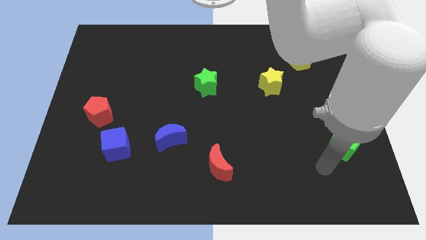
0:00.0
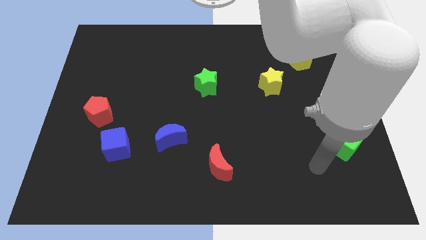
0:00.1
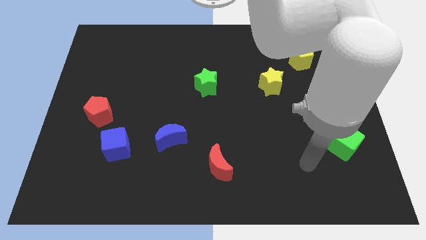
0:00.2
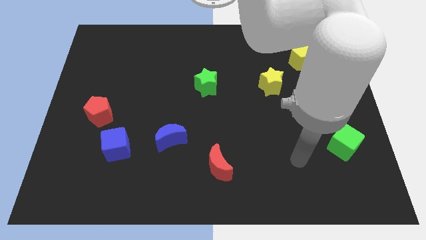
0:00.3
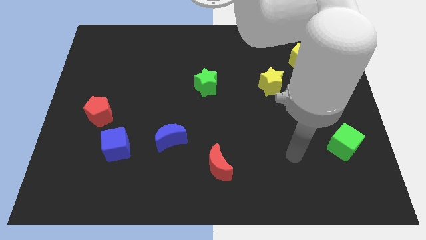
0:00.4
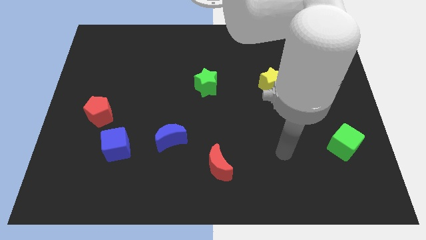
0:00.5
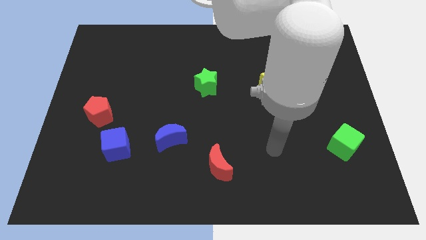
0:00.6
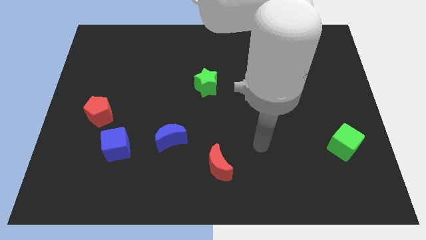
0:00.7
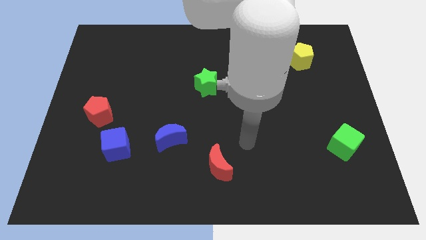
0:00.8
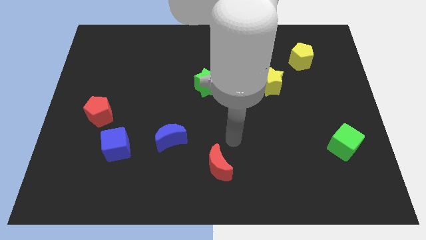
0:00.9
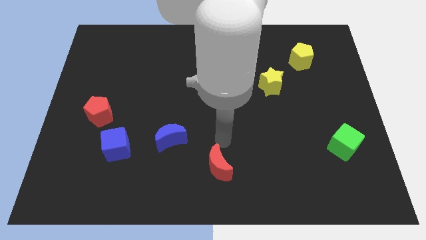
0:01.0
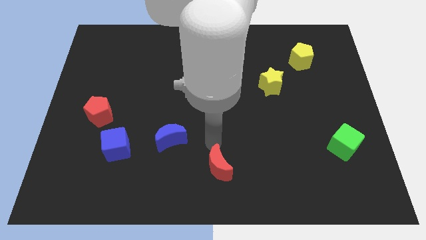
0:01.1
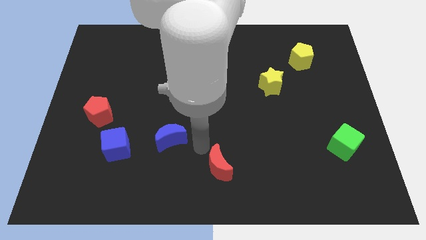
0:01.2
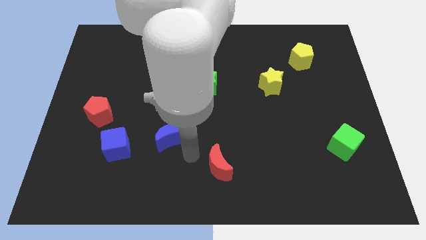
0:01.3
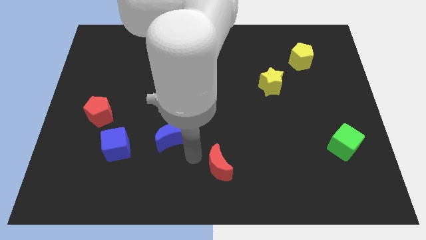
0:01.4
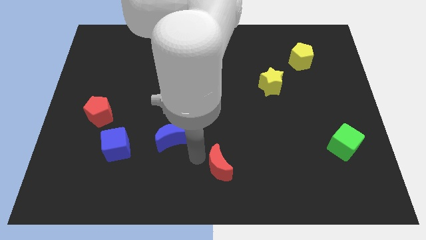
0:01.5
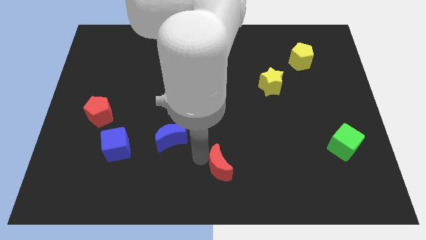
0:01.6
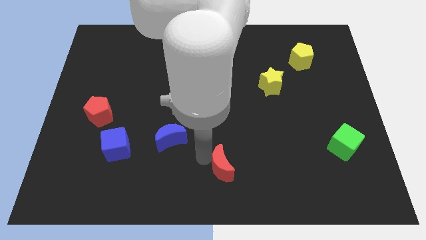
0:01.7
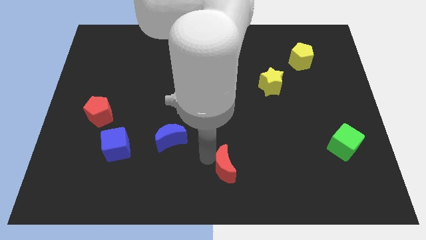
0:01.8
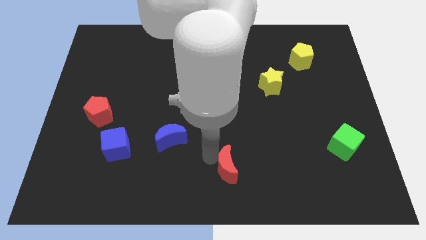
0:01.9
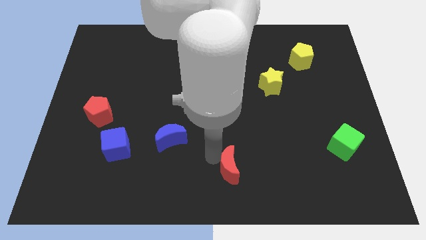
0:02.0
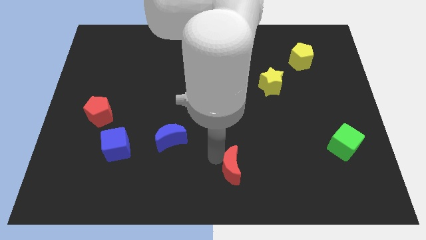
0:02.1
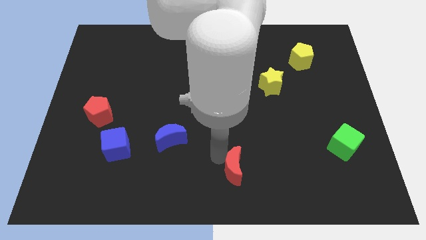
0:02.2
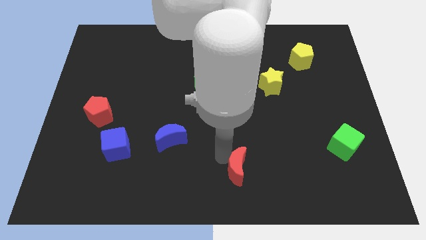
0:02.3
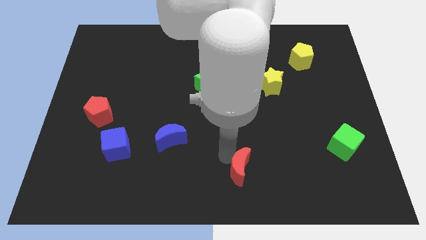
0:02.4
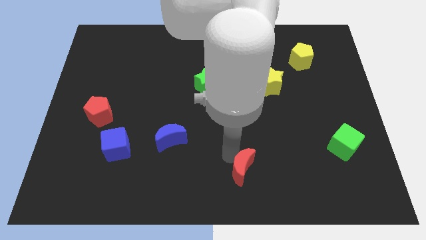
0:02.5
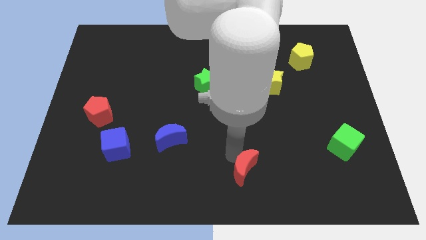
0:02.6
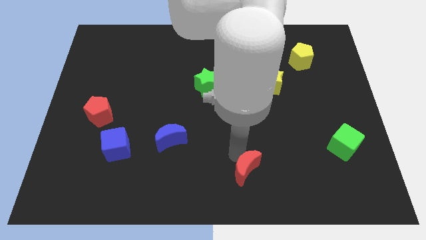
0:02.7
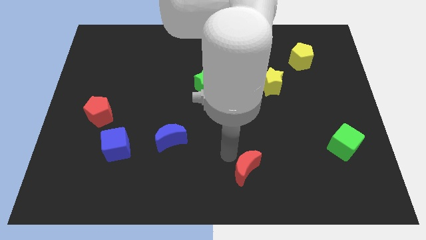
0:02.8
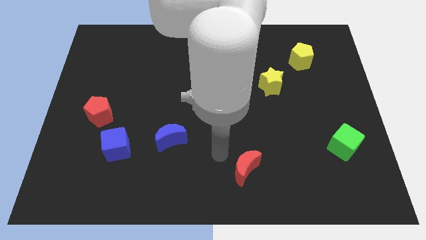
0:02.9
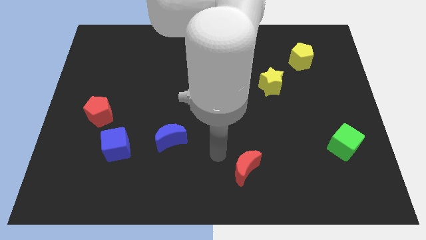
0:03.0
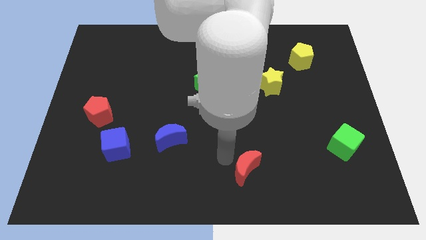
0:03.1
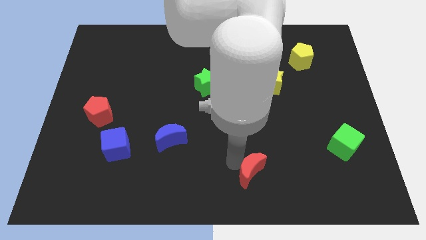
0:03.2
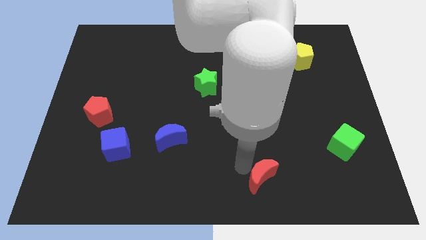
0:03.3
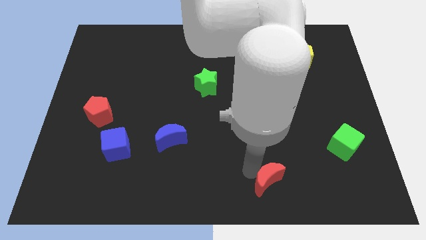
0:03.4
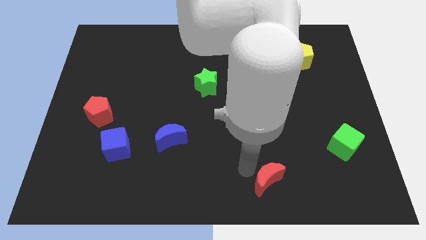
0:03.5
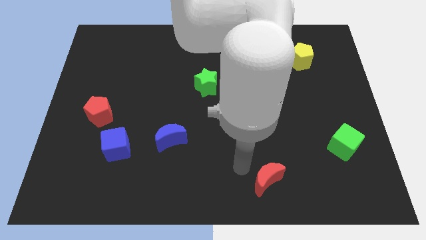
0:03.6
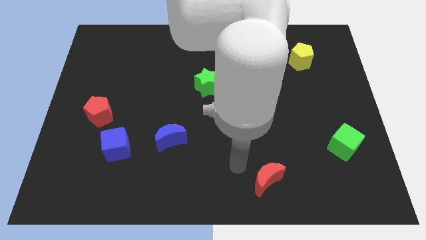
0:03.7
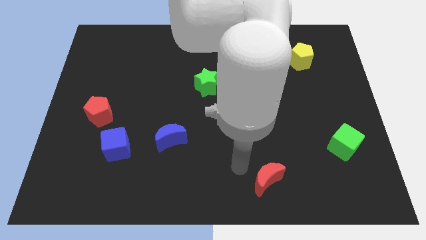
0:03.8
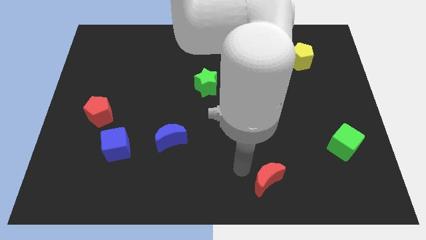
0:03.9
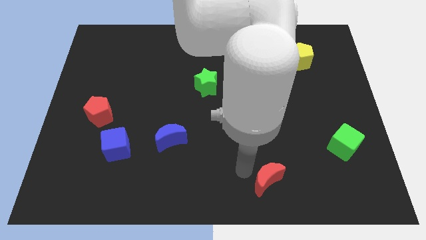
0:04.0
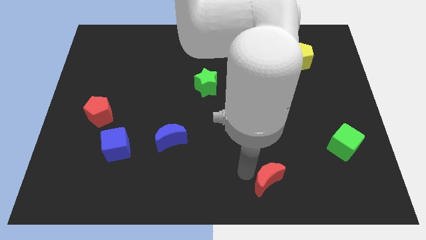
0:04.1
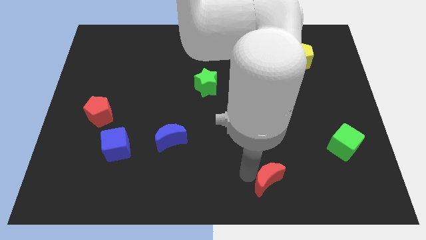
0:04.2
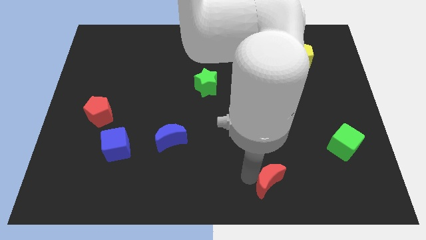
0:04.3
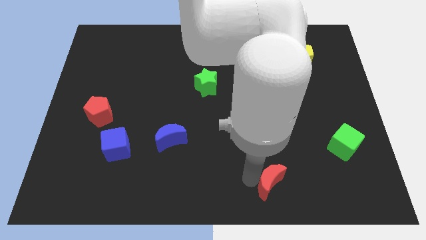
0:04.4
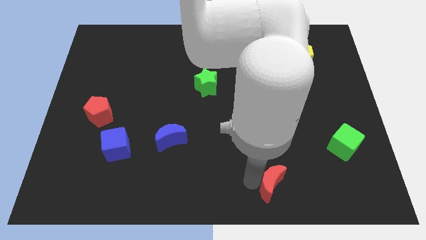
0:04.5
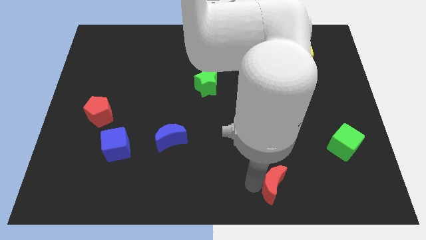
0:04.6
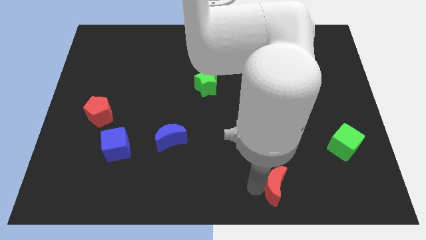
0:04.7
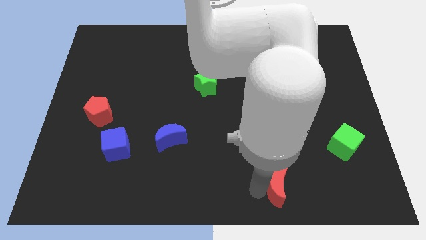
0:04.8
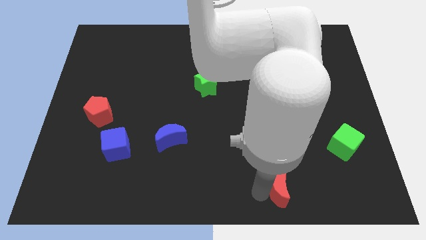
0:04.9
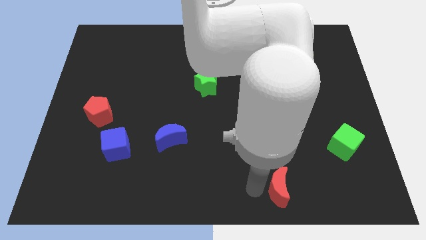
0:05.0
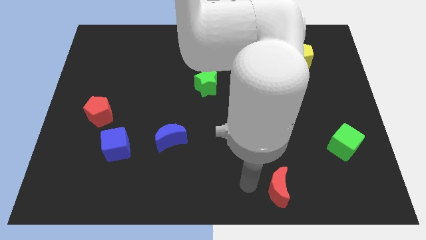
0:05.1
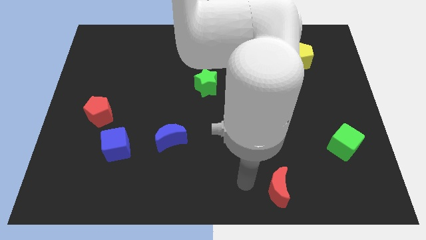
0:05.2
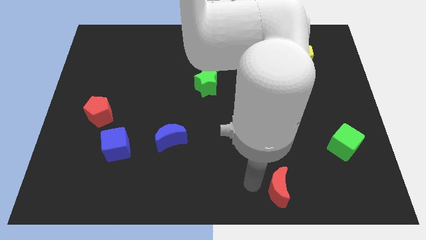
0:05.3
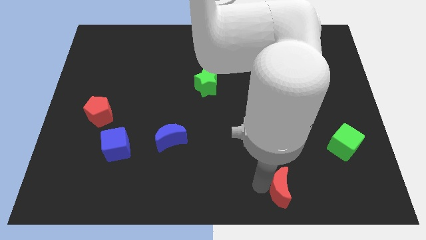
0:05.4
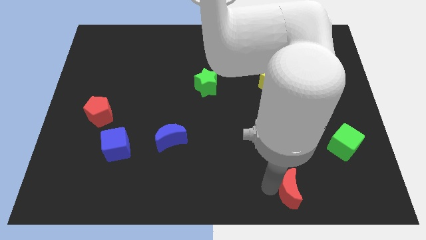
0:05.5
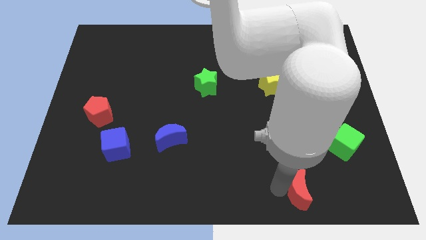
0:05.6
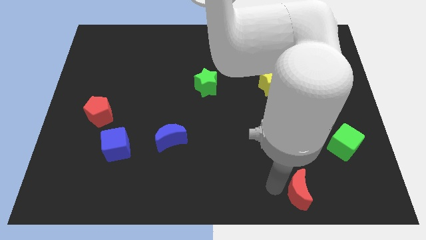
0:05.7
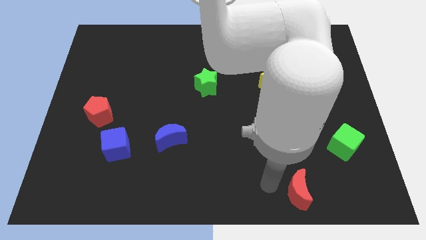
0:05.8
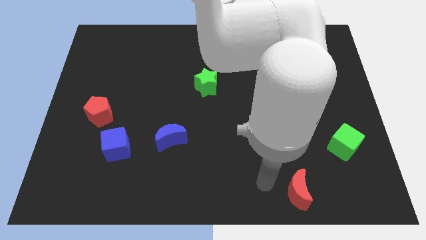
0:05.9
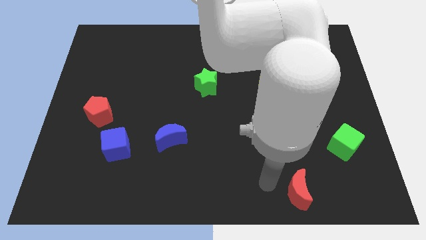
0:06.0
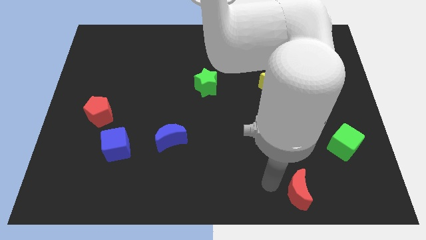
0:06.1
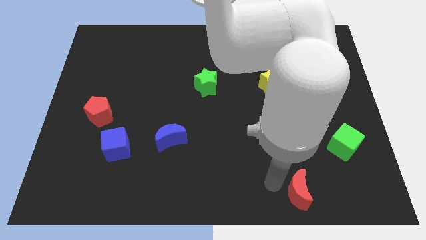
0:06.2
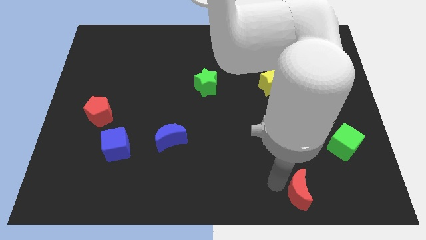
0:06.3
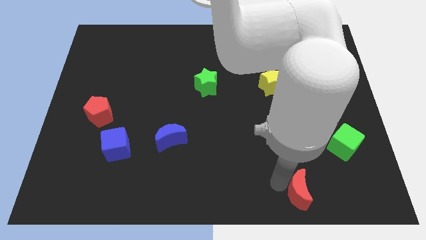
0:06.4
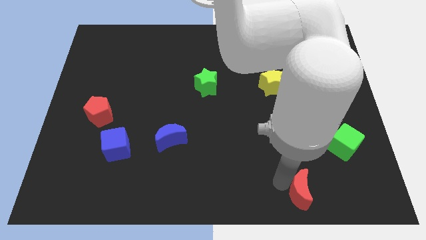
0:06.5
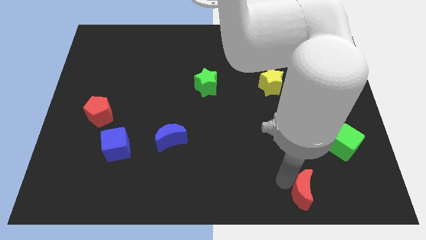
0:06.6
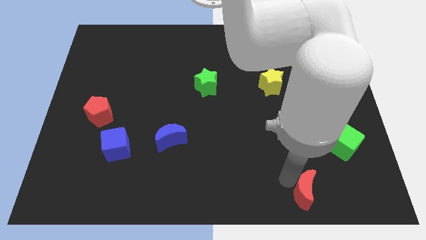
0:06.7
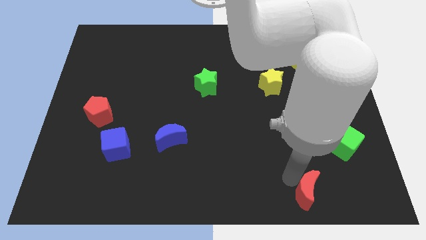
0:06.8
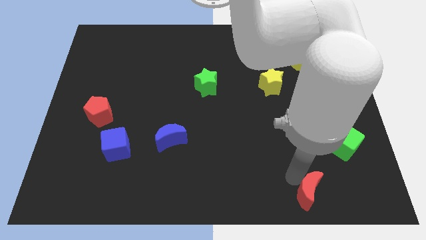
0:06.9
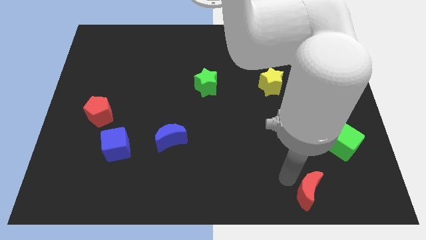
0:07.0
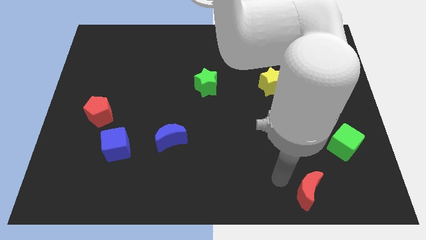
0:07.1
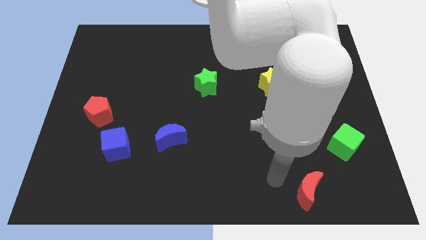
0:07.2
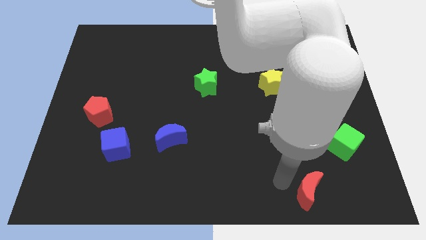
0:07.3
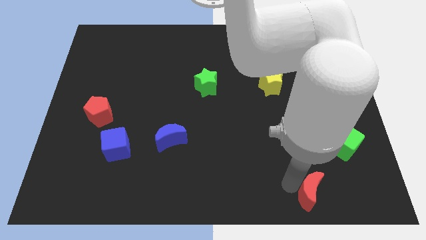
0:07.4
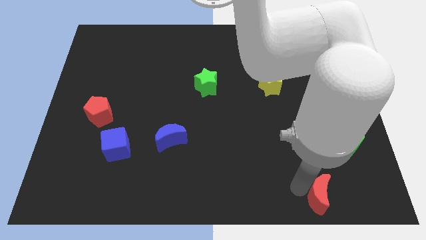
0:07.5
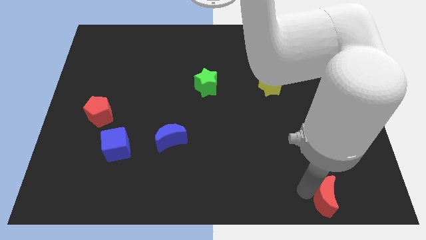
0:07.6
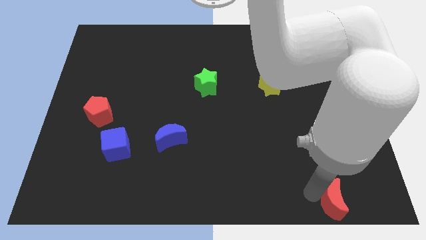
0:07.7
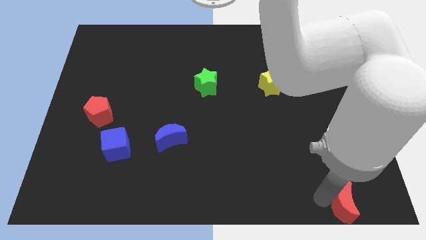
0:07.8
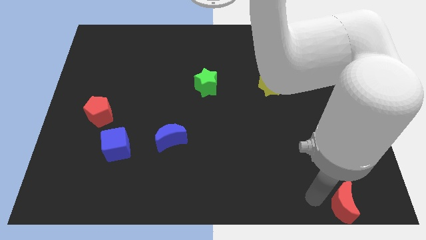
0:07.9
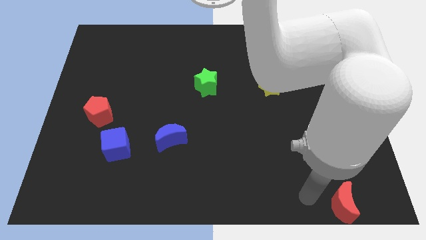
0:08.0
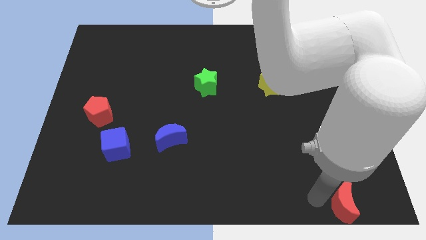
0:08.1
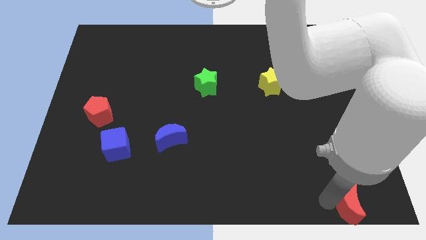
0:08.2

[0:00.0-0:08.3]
slide the red moon to the bottom right
